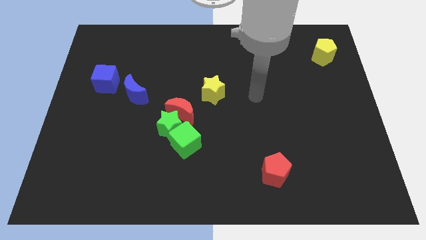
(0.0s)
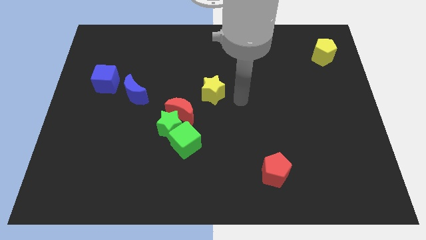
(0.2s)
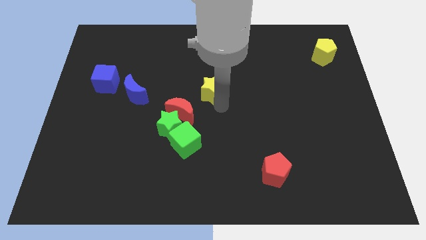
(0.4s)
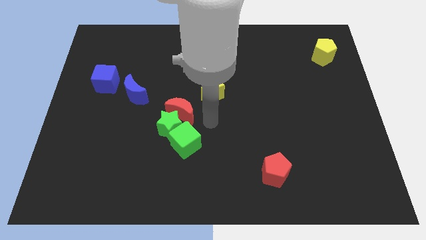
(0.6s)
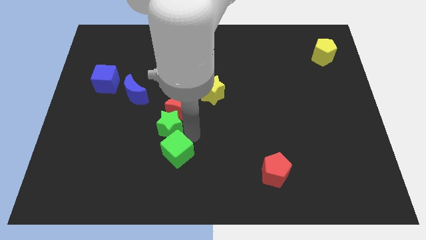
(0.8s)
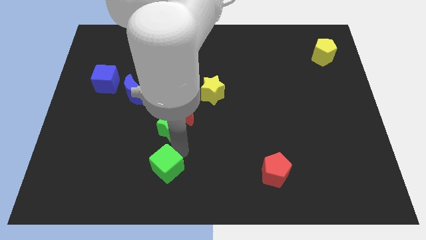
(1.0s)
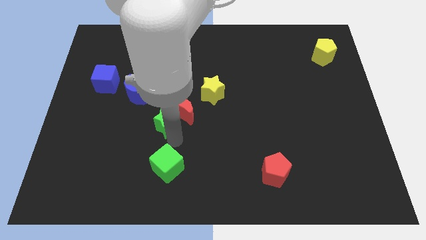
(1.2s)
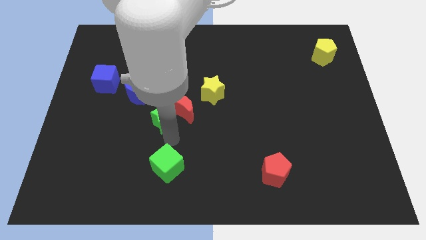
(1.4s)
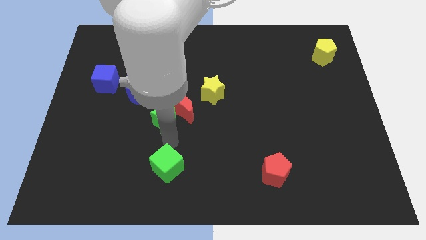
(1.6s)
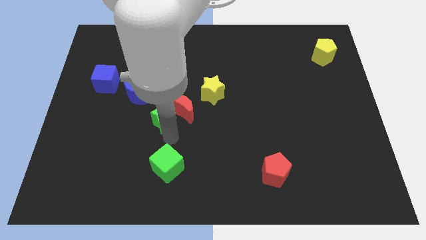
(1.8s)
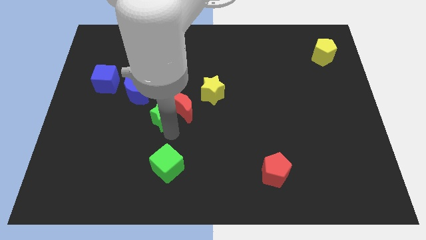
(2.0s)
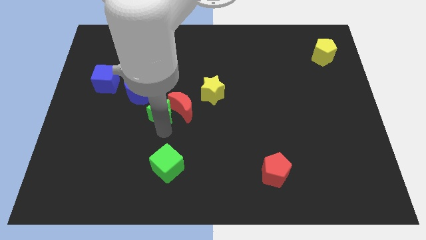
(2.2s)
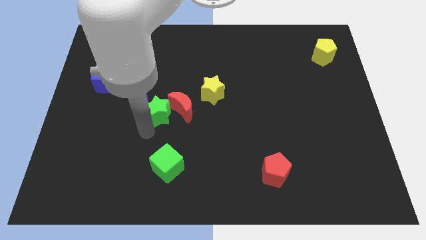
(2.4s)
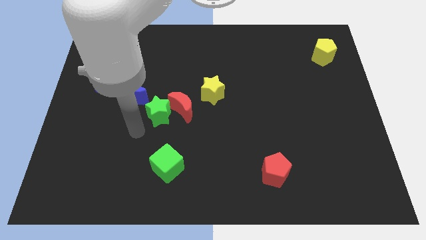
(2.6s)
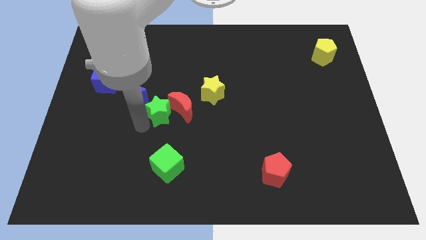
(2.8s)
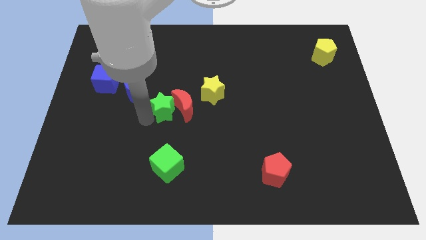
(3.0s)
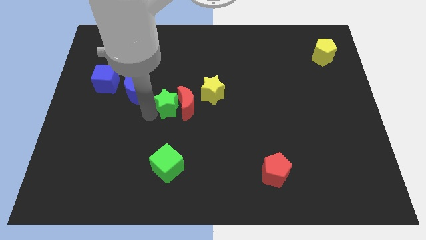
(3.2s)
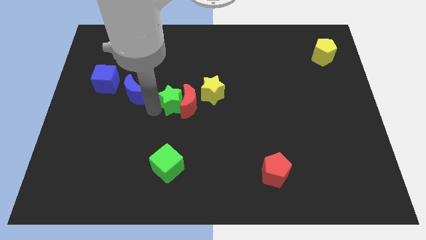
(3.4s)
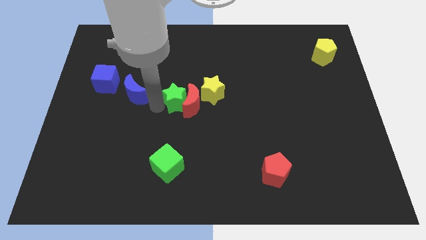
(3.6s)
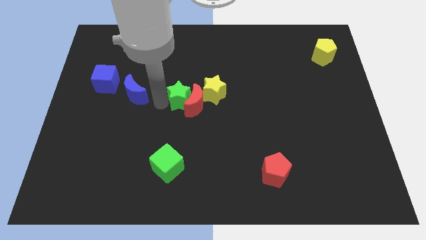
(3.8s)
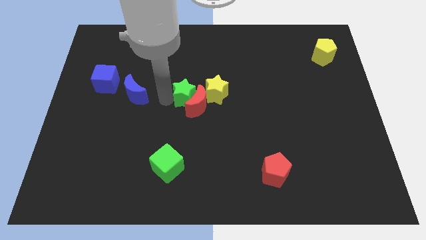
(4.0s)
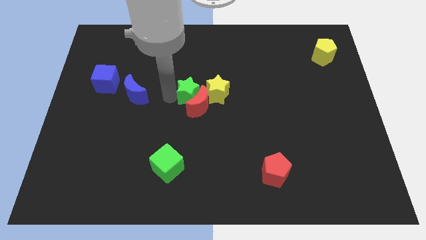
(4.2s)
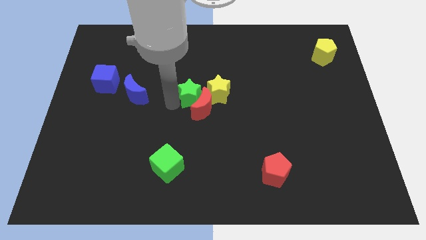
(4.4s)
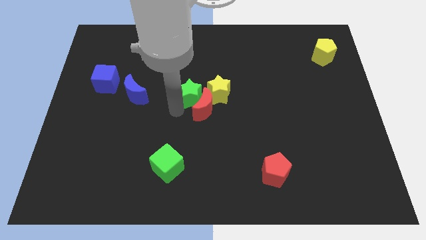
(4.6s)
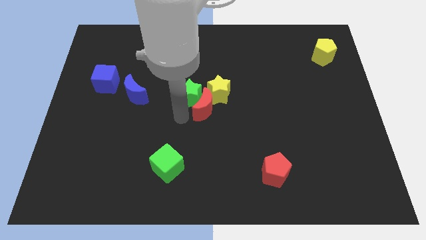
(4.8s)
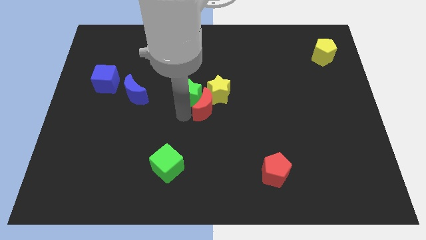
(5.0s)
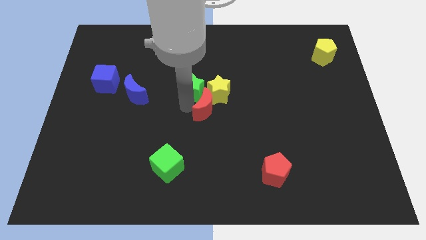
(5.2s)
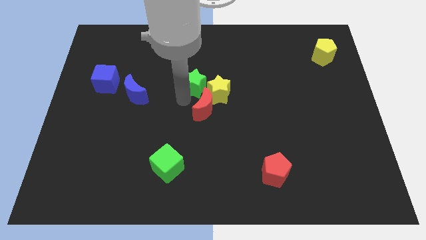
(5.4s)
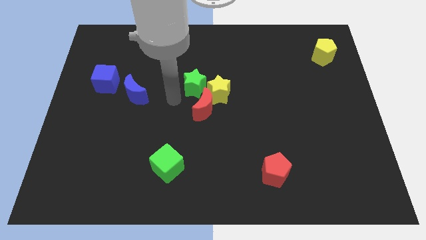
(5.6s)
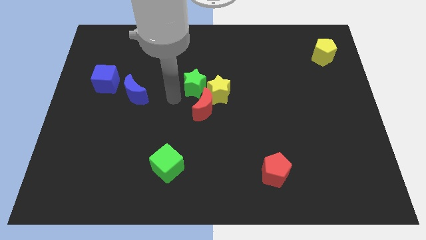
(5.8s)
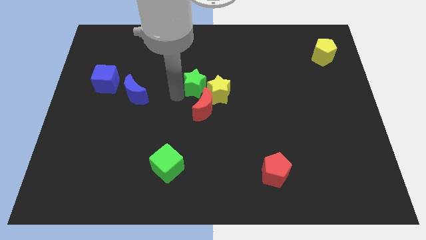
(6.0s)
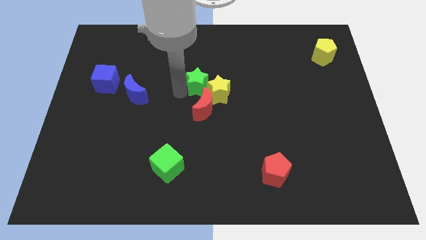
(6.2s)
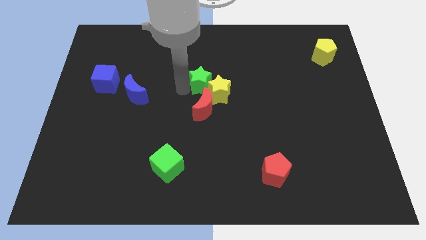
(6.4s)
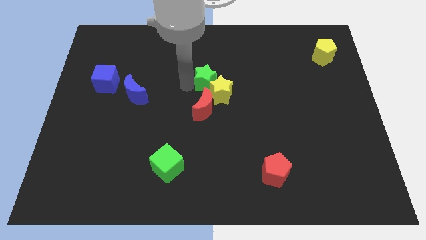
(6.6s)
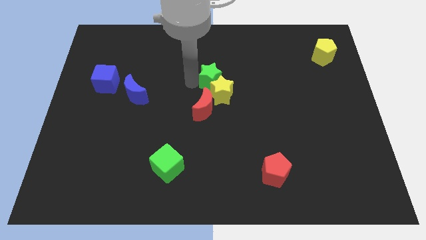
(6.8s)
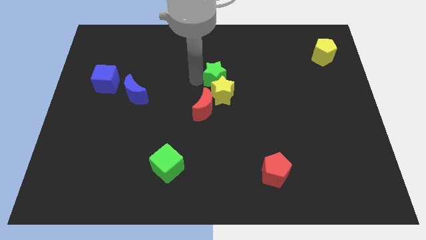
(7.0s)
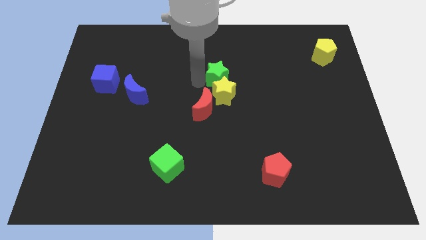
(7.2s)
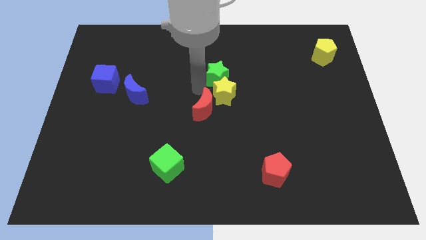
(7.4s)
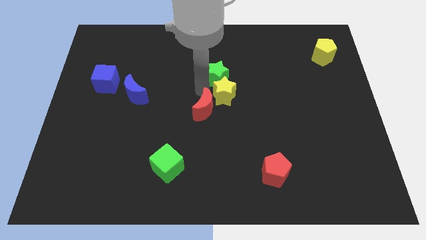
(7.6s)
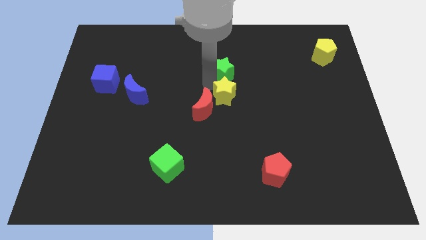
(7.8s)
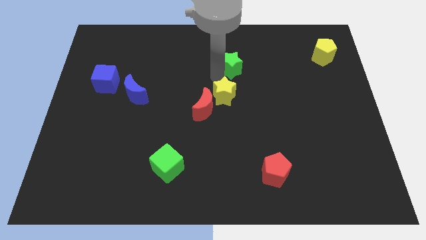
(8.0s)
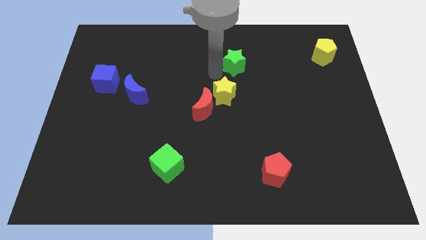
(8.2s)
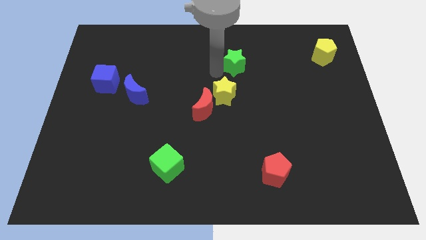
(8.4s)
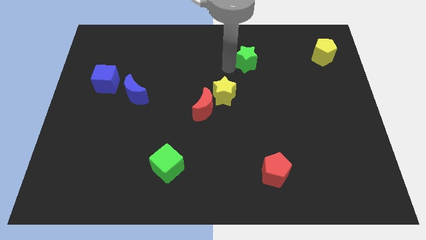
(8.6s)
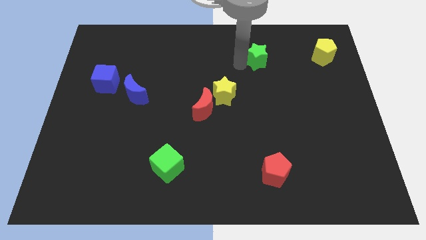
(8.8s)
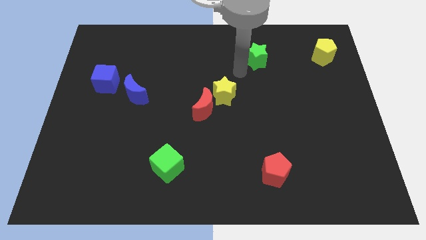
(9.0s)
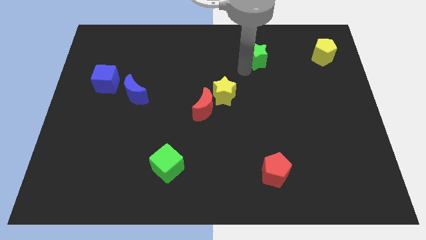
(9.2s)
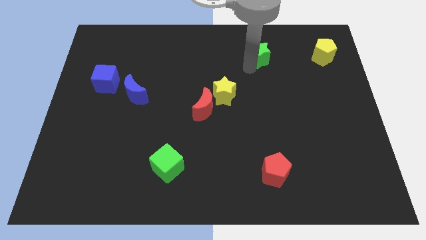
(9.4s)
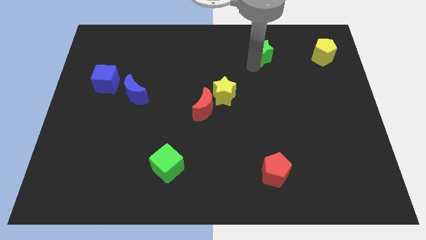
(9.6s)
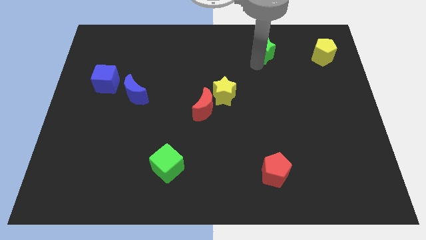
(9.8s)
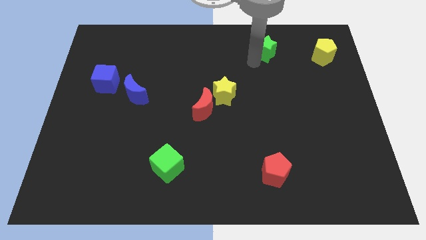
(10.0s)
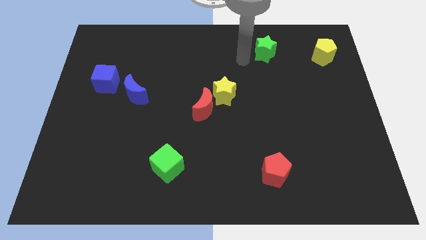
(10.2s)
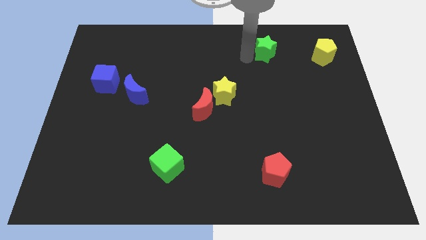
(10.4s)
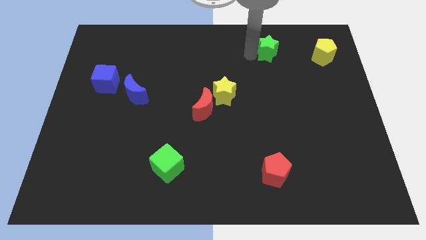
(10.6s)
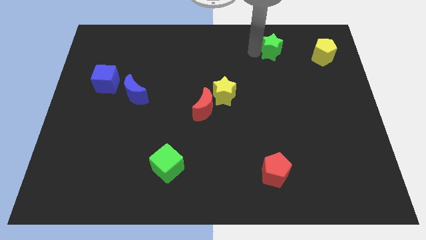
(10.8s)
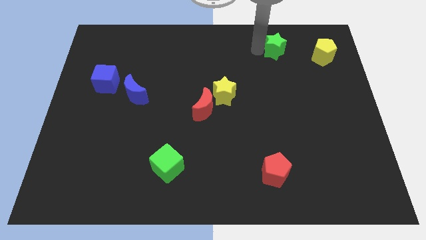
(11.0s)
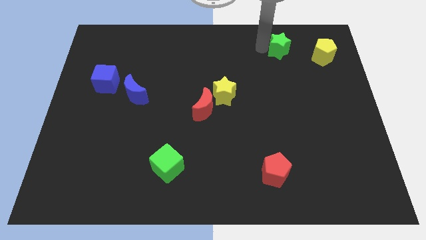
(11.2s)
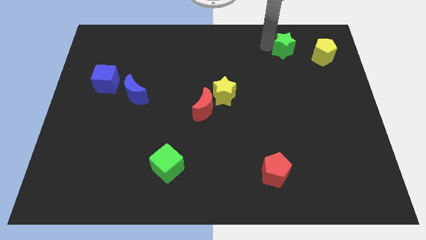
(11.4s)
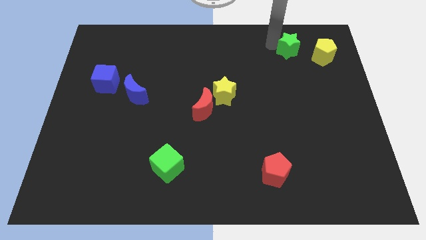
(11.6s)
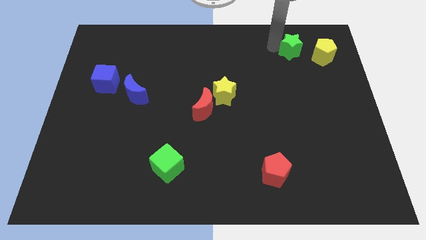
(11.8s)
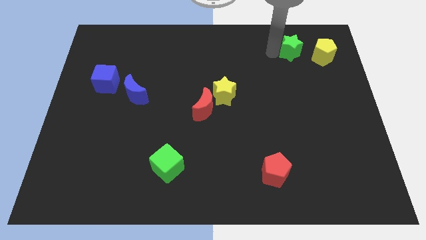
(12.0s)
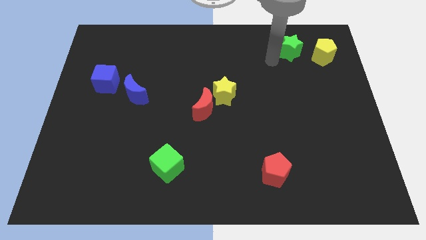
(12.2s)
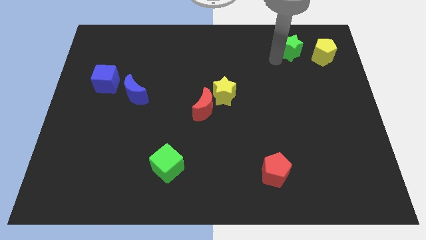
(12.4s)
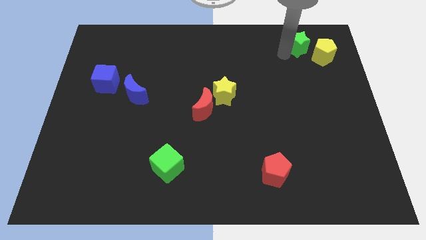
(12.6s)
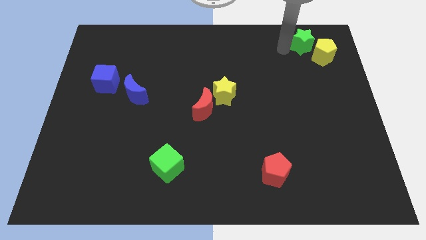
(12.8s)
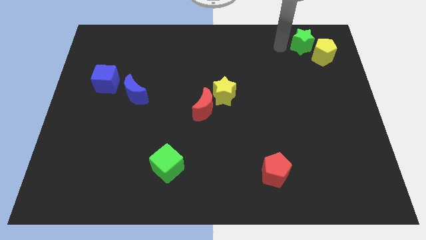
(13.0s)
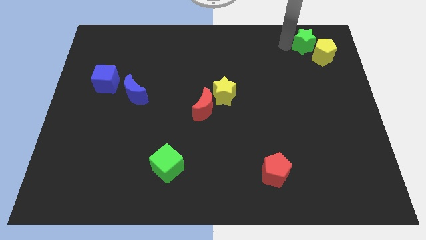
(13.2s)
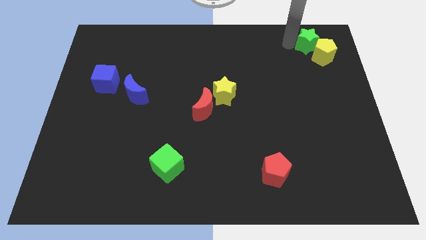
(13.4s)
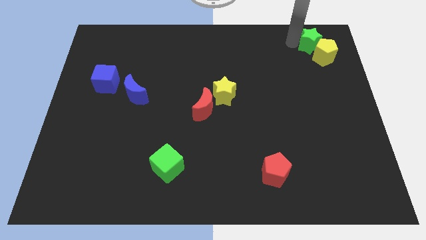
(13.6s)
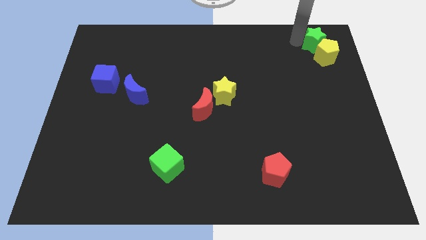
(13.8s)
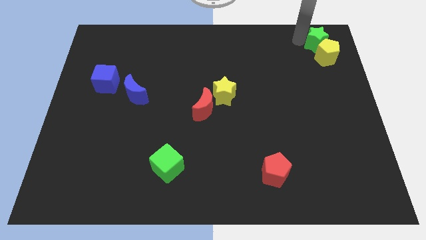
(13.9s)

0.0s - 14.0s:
put the green star to the top right
